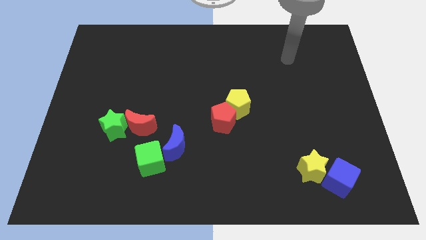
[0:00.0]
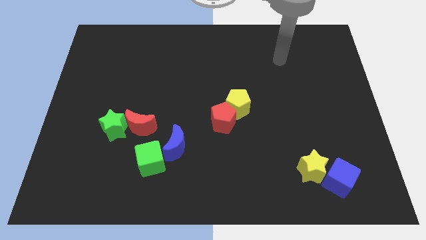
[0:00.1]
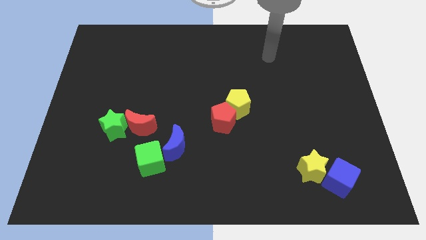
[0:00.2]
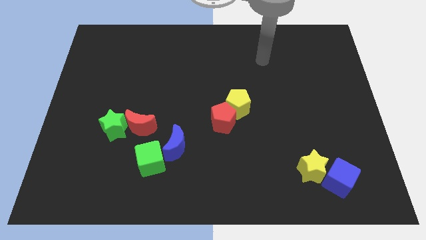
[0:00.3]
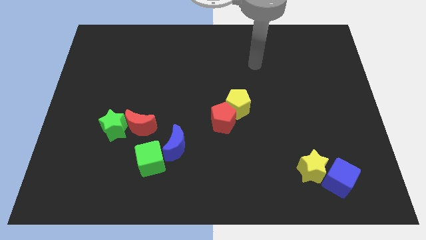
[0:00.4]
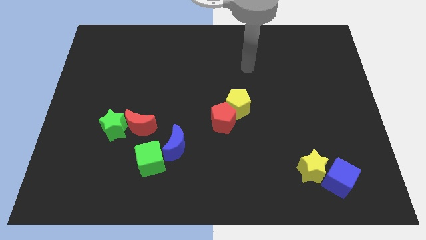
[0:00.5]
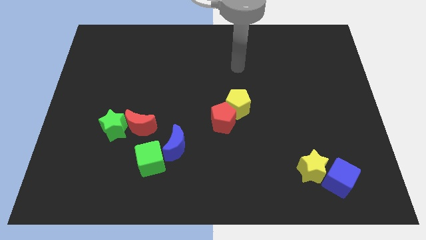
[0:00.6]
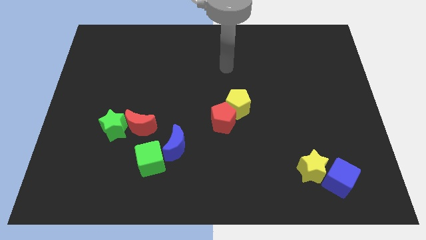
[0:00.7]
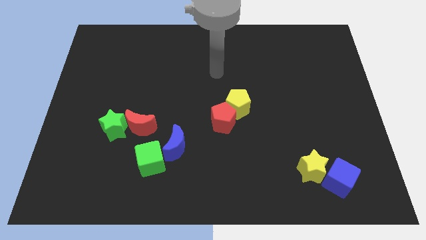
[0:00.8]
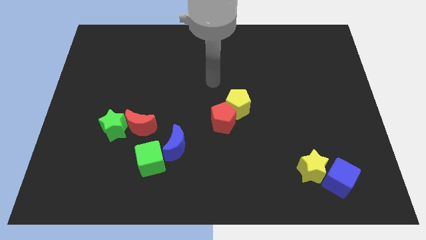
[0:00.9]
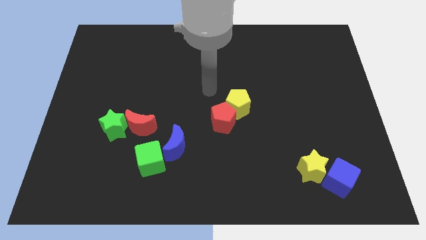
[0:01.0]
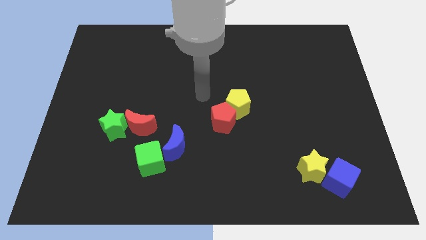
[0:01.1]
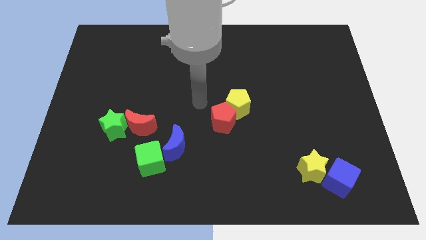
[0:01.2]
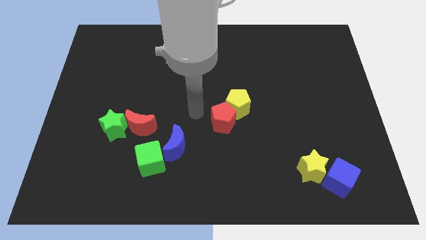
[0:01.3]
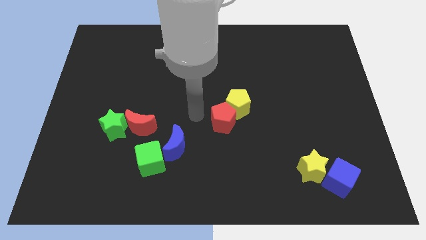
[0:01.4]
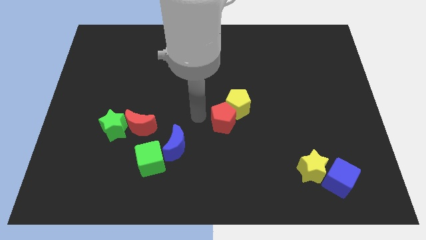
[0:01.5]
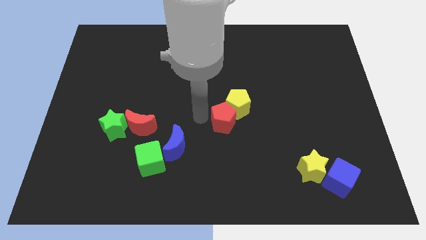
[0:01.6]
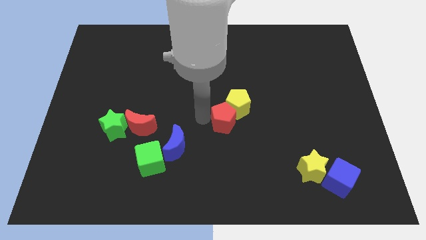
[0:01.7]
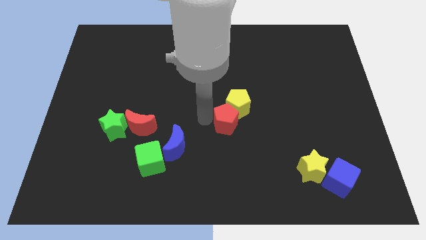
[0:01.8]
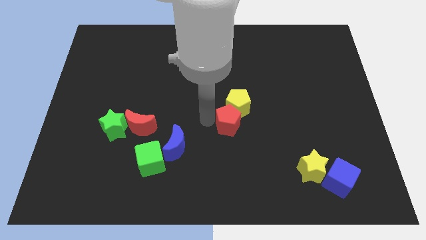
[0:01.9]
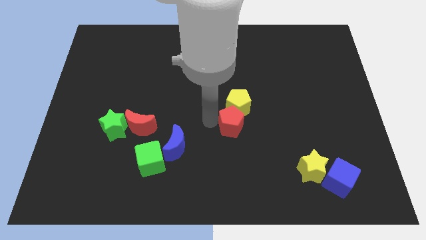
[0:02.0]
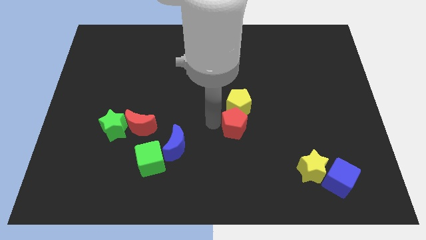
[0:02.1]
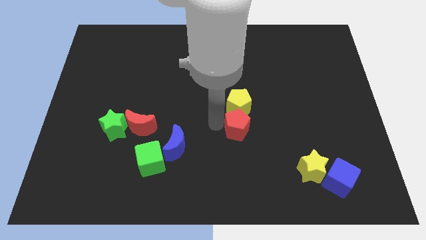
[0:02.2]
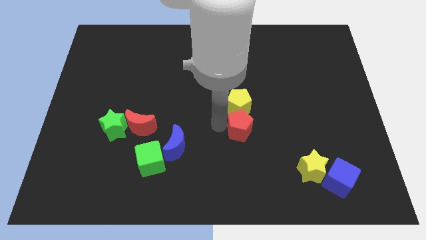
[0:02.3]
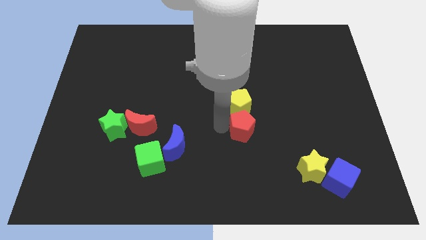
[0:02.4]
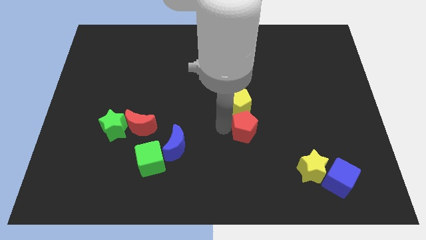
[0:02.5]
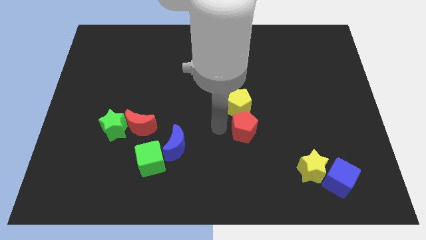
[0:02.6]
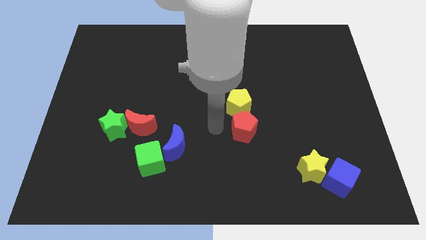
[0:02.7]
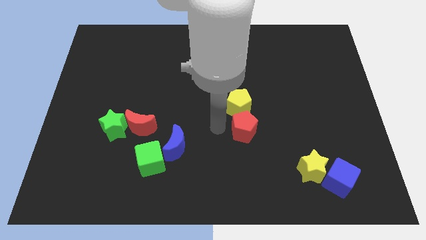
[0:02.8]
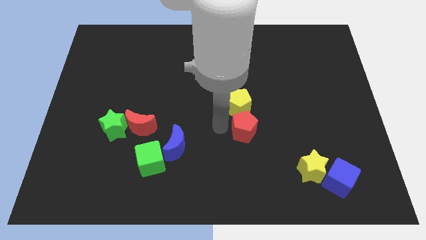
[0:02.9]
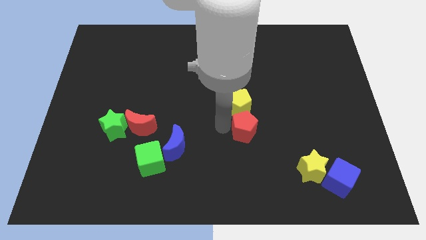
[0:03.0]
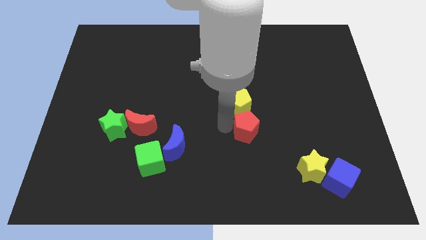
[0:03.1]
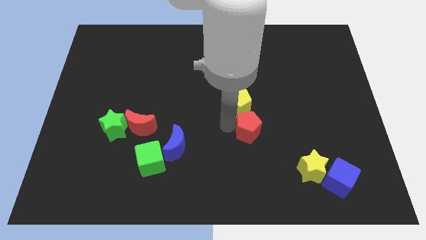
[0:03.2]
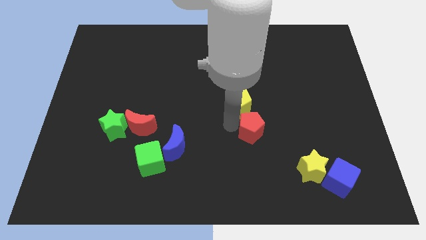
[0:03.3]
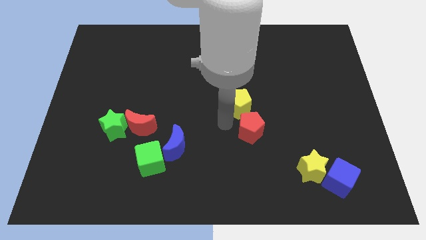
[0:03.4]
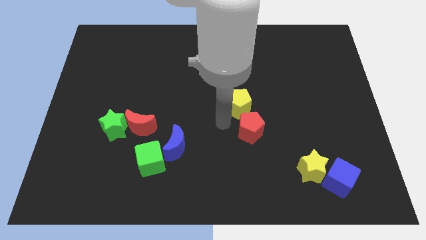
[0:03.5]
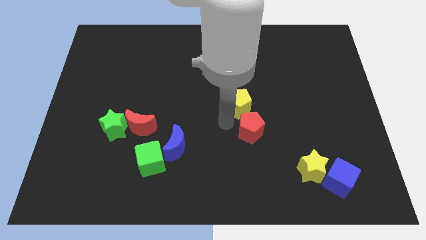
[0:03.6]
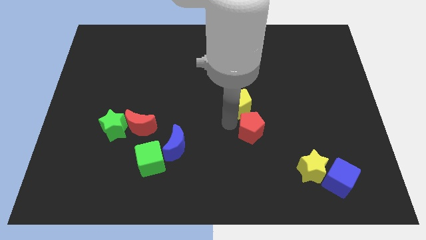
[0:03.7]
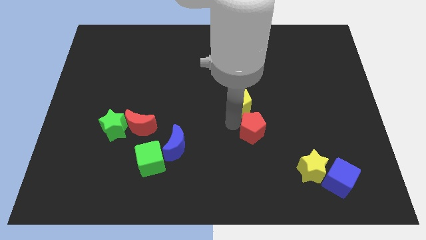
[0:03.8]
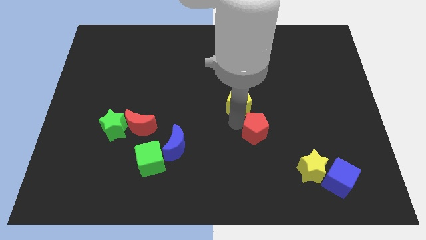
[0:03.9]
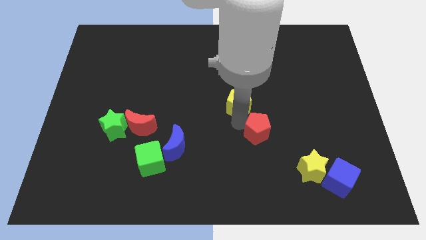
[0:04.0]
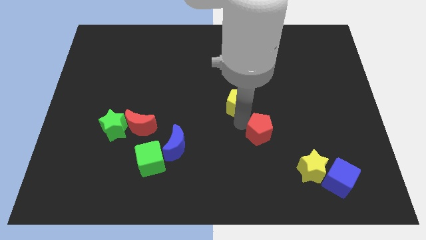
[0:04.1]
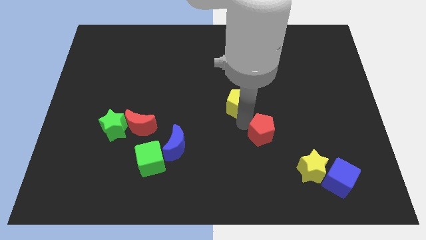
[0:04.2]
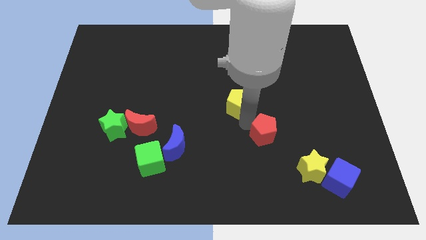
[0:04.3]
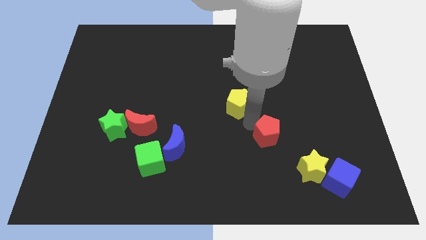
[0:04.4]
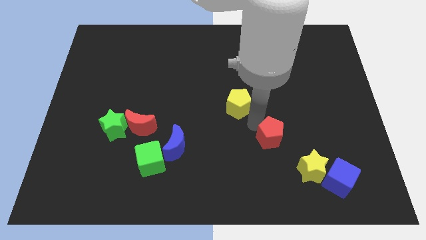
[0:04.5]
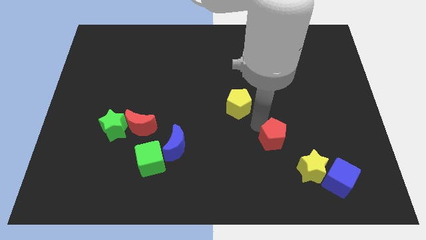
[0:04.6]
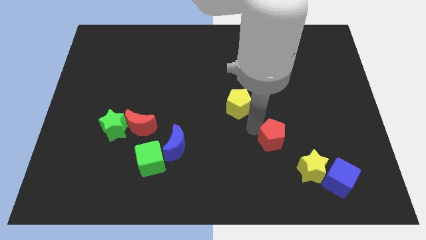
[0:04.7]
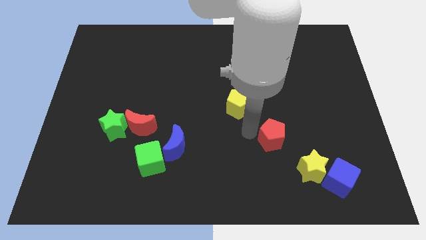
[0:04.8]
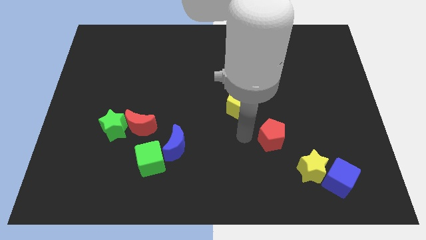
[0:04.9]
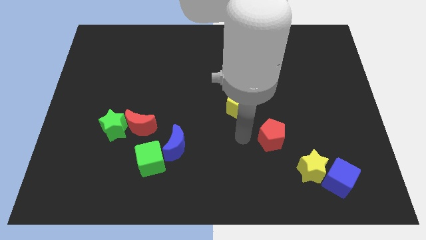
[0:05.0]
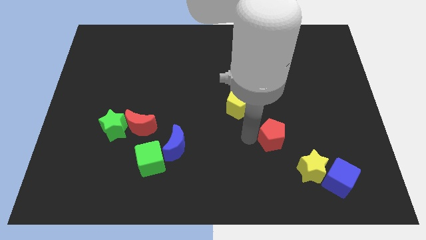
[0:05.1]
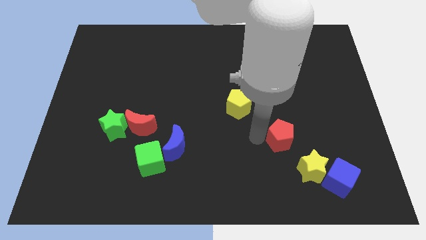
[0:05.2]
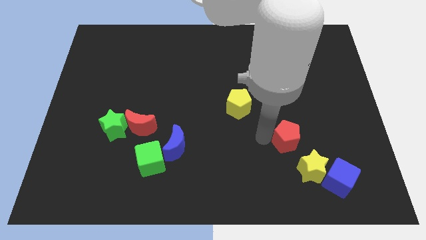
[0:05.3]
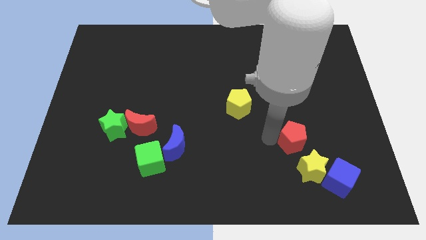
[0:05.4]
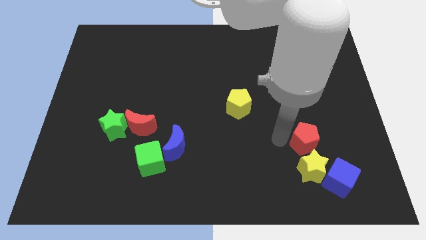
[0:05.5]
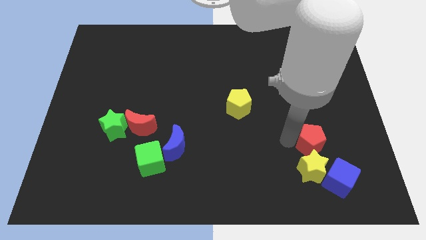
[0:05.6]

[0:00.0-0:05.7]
slide the red pentagon to the top side of the blue cube

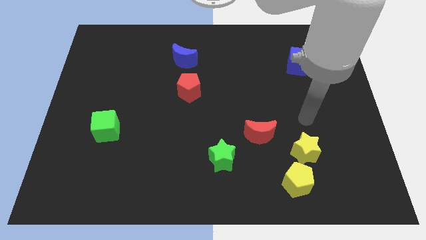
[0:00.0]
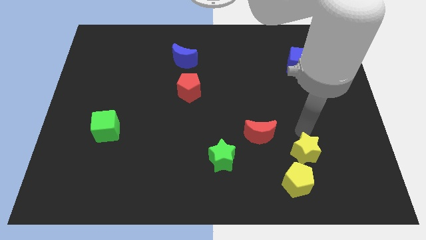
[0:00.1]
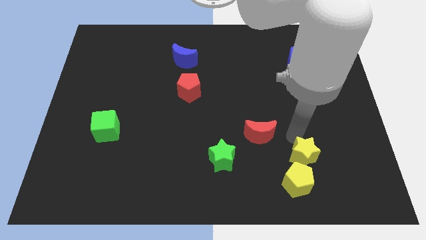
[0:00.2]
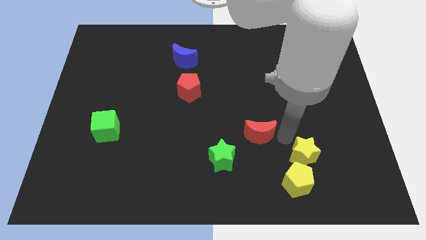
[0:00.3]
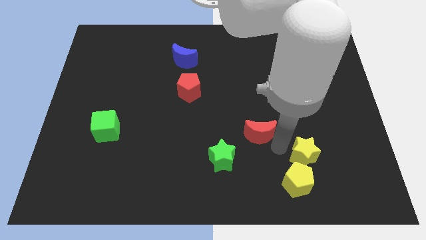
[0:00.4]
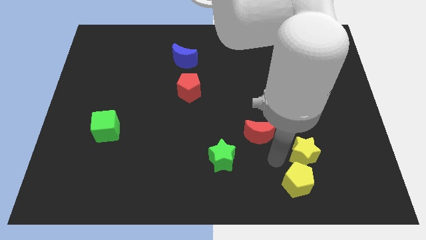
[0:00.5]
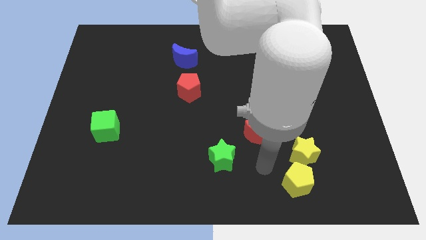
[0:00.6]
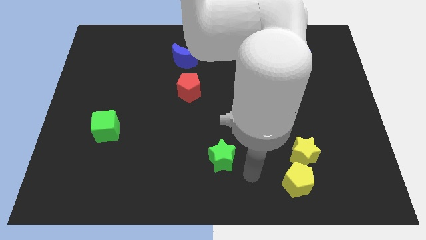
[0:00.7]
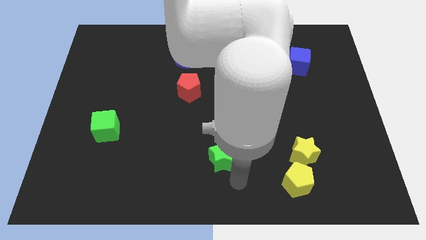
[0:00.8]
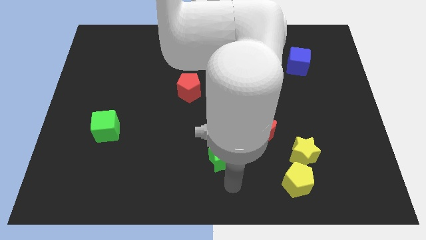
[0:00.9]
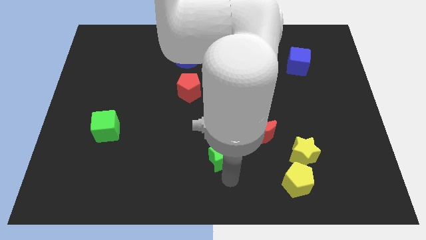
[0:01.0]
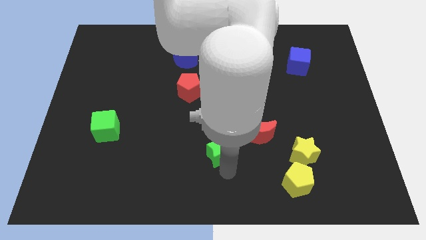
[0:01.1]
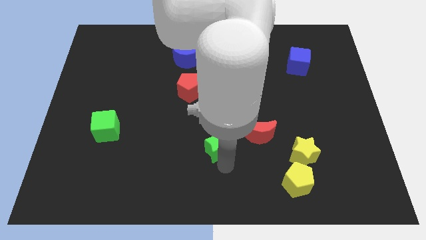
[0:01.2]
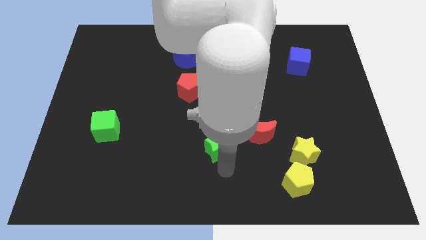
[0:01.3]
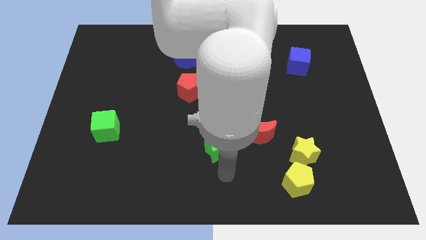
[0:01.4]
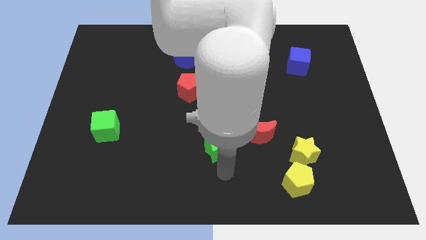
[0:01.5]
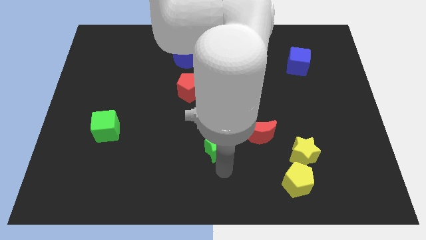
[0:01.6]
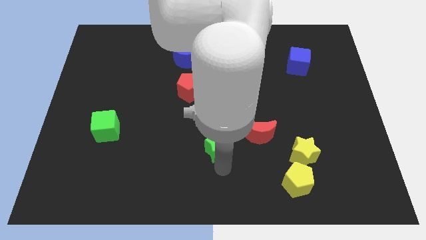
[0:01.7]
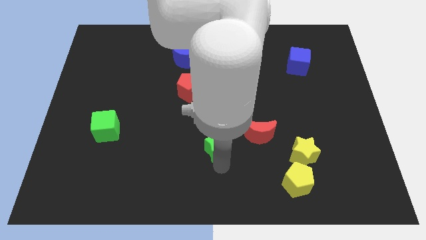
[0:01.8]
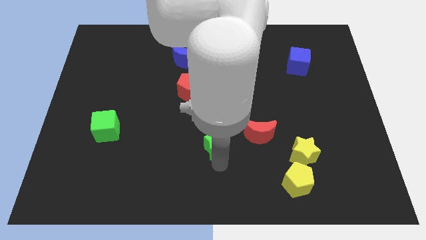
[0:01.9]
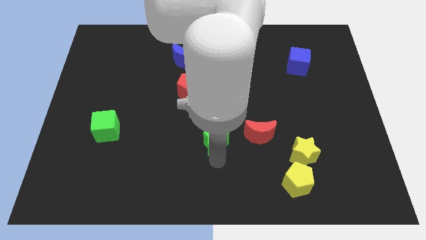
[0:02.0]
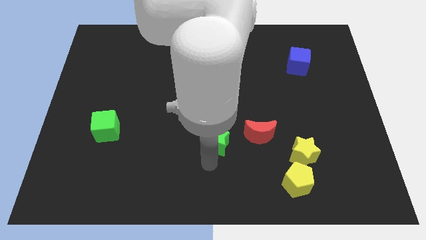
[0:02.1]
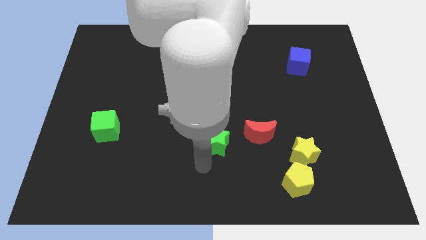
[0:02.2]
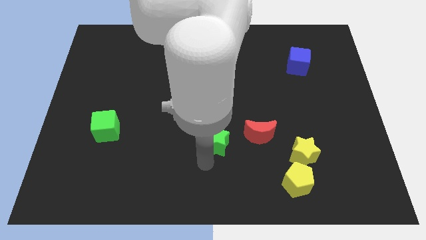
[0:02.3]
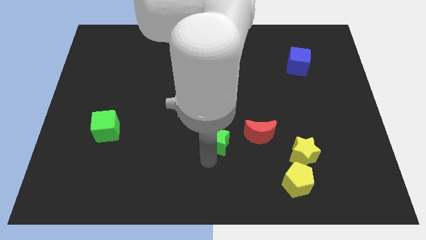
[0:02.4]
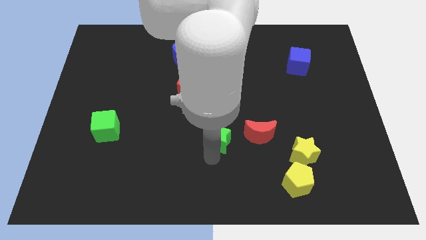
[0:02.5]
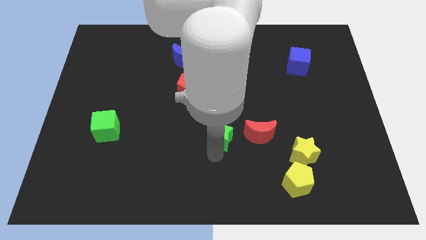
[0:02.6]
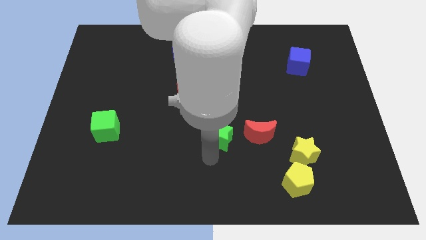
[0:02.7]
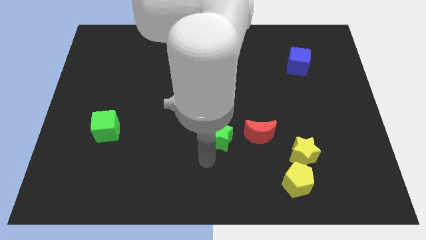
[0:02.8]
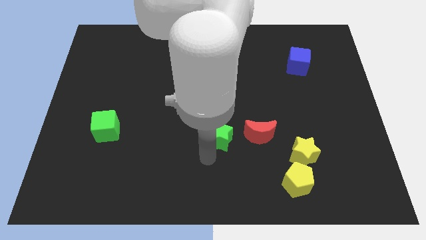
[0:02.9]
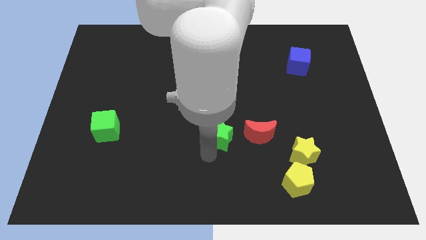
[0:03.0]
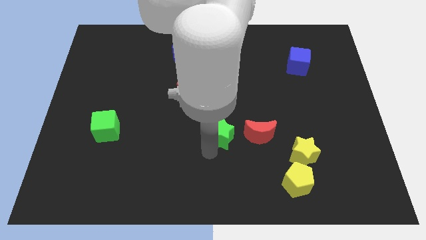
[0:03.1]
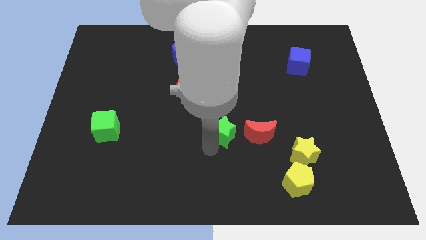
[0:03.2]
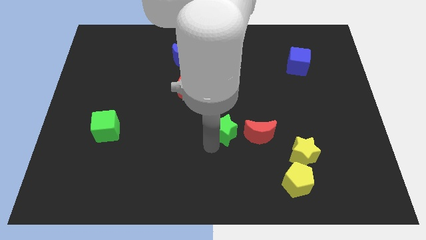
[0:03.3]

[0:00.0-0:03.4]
slide the green star diagonally up and to the left of the red moon
